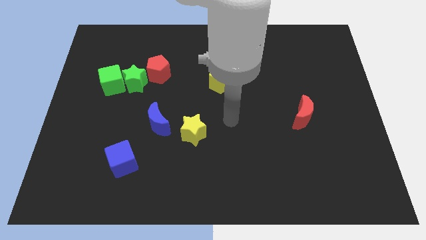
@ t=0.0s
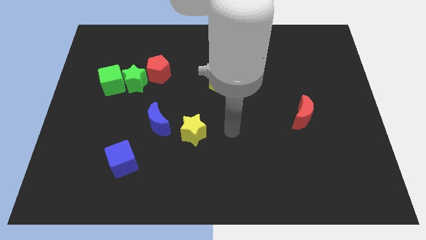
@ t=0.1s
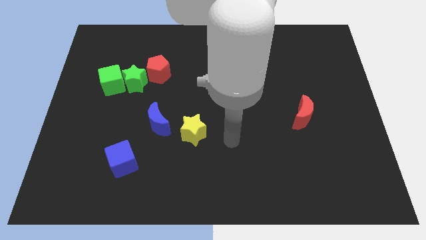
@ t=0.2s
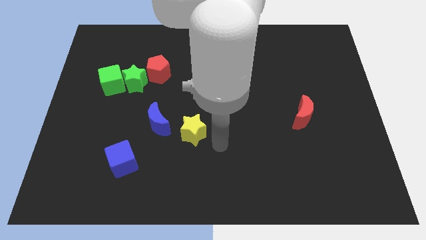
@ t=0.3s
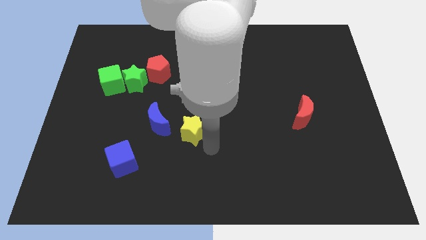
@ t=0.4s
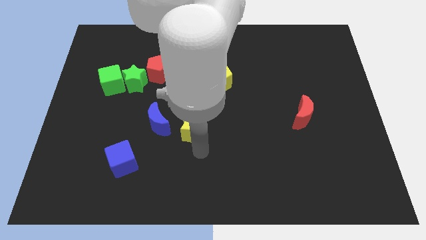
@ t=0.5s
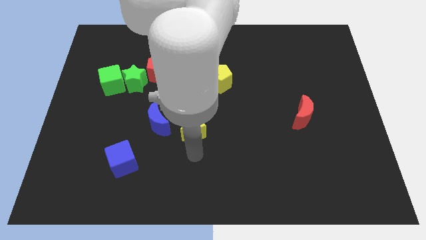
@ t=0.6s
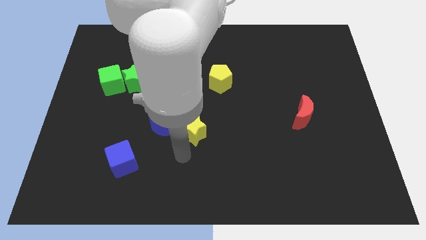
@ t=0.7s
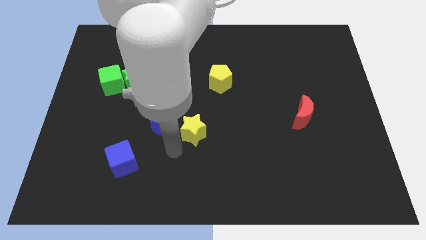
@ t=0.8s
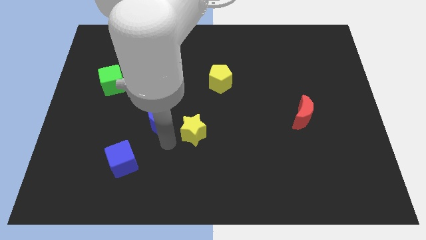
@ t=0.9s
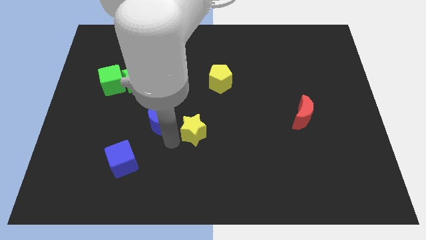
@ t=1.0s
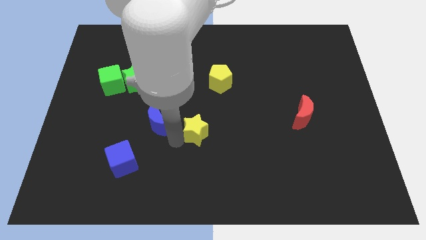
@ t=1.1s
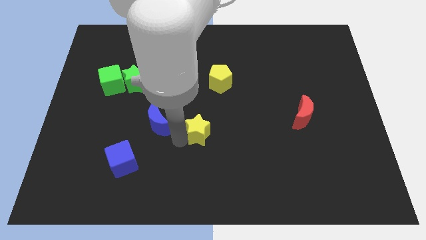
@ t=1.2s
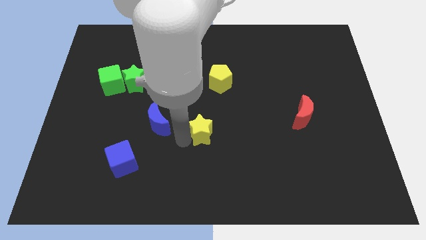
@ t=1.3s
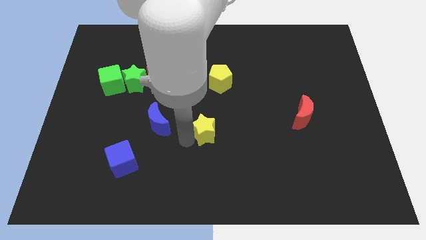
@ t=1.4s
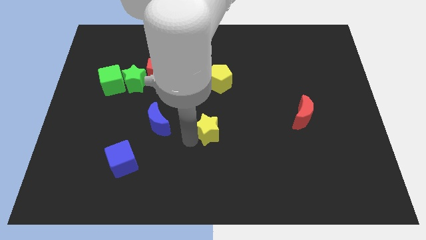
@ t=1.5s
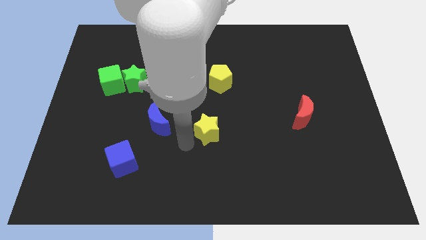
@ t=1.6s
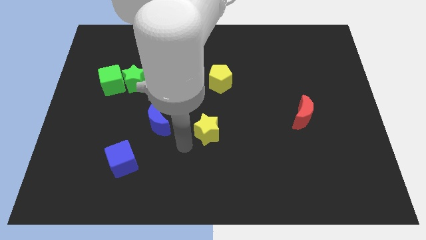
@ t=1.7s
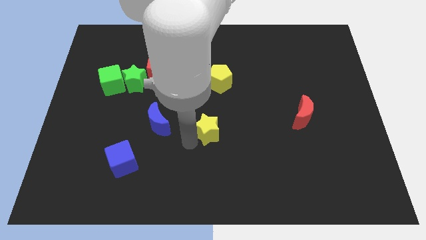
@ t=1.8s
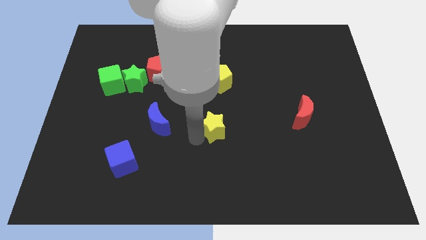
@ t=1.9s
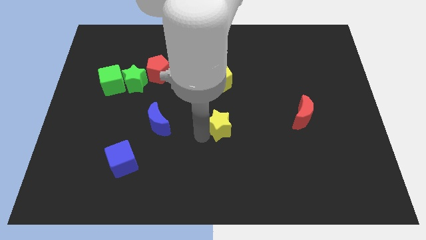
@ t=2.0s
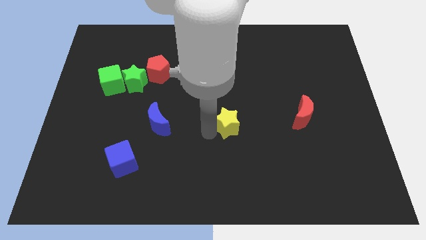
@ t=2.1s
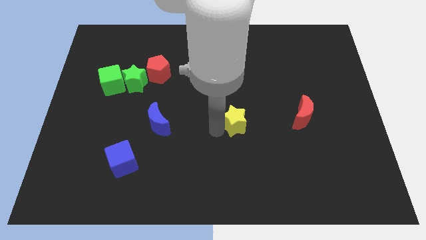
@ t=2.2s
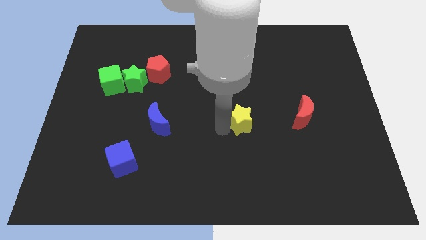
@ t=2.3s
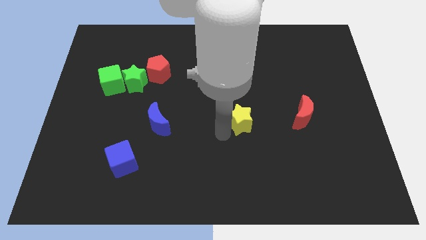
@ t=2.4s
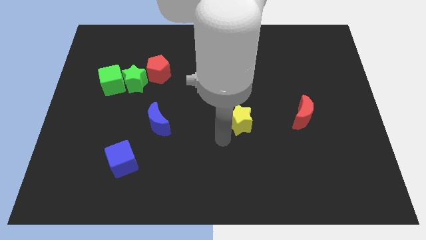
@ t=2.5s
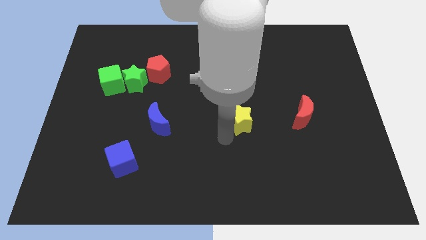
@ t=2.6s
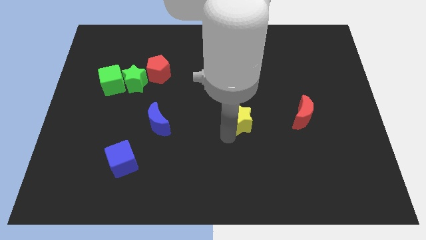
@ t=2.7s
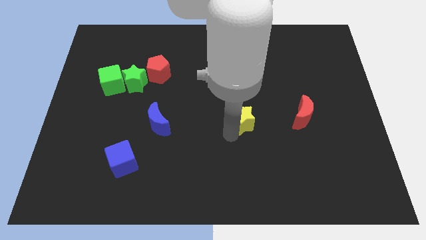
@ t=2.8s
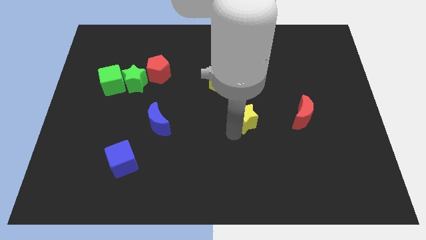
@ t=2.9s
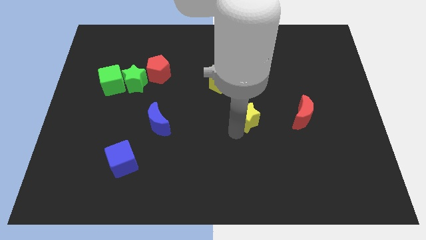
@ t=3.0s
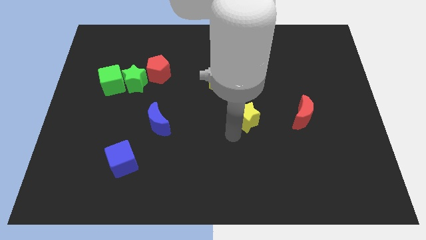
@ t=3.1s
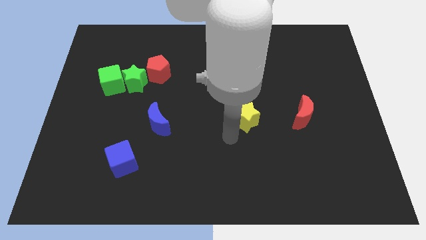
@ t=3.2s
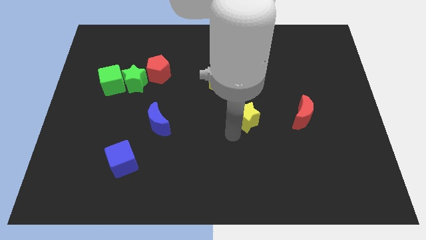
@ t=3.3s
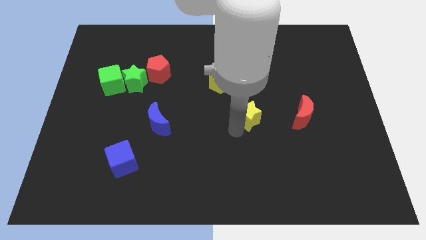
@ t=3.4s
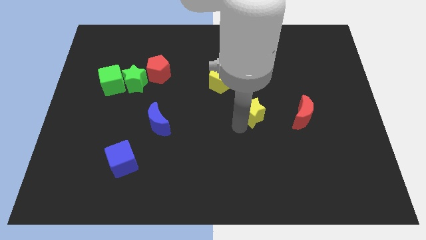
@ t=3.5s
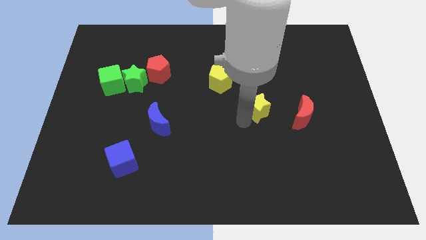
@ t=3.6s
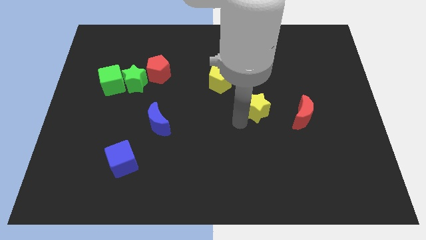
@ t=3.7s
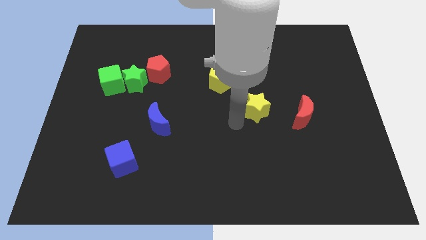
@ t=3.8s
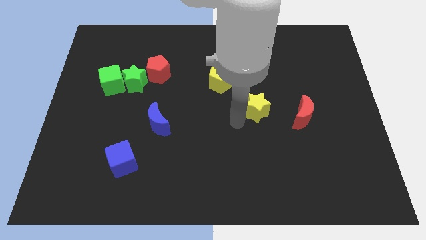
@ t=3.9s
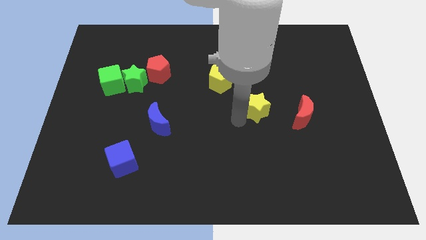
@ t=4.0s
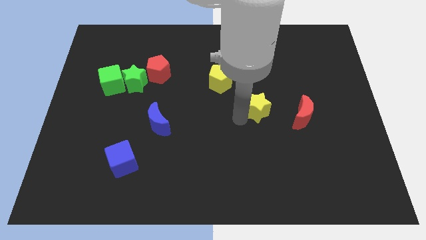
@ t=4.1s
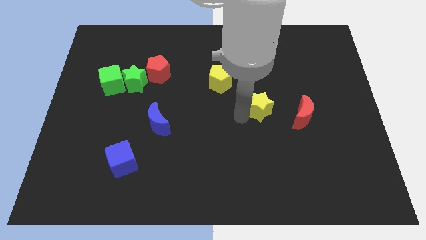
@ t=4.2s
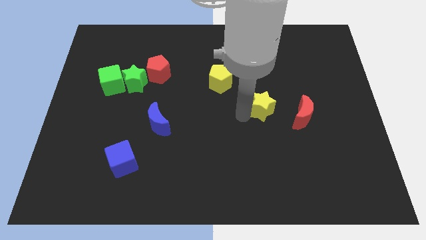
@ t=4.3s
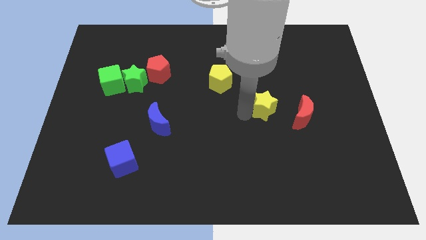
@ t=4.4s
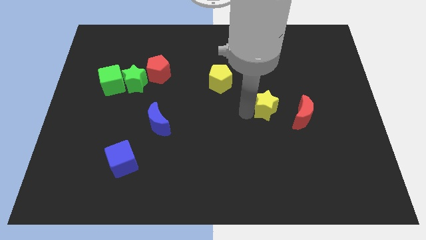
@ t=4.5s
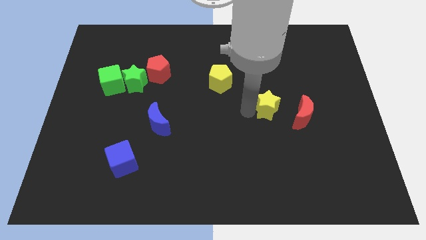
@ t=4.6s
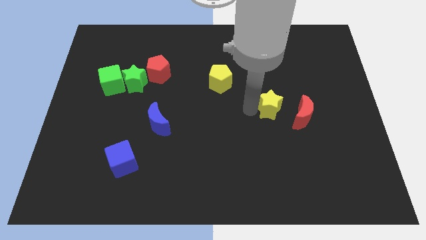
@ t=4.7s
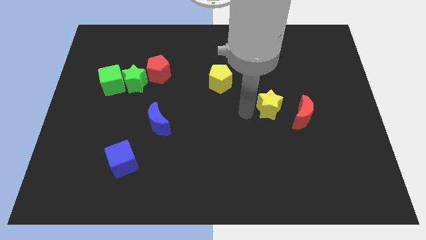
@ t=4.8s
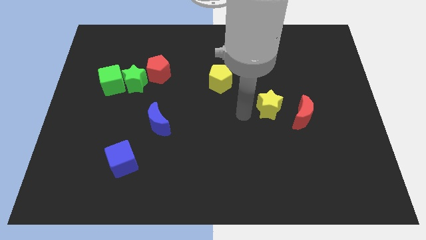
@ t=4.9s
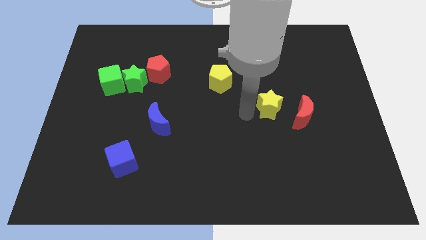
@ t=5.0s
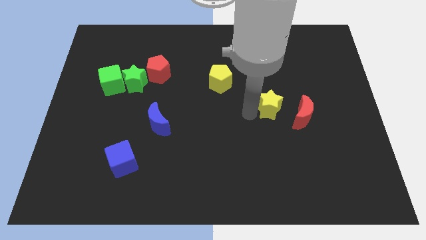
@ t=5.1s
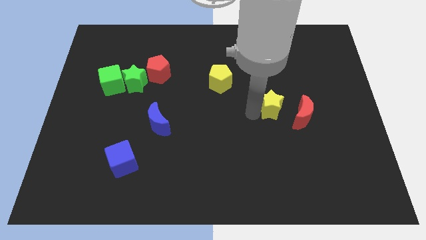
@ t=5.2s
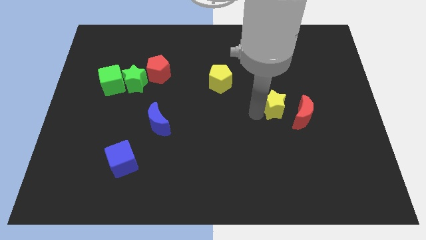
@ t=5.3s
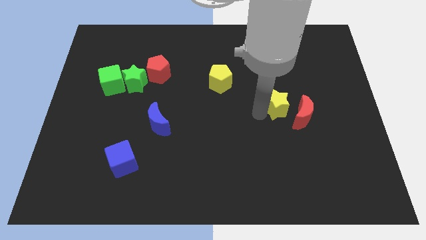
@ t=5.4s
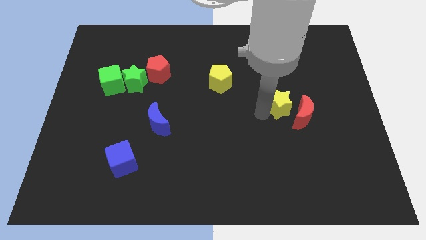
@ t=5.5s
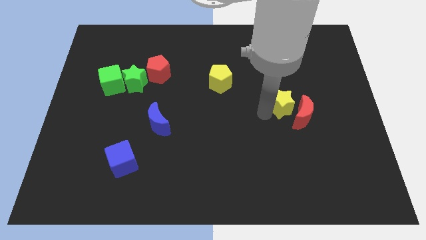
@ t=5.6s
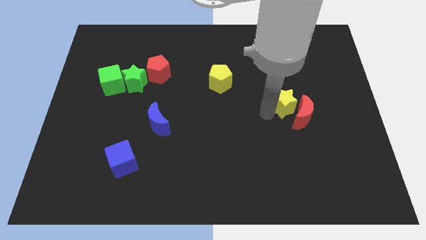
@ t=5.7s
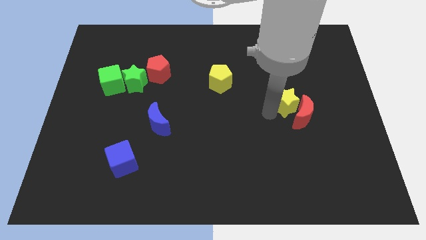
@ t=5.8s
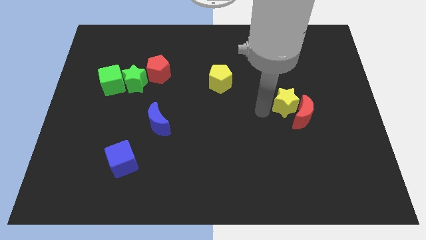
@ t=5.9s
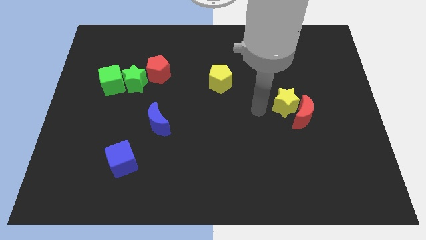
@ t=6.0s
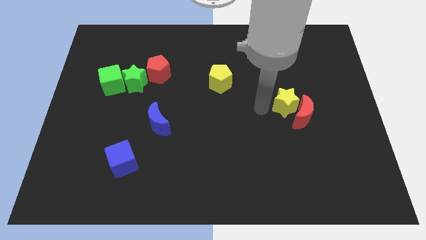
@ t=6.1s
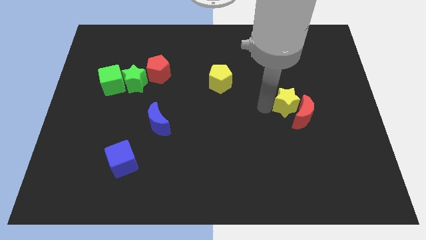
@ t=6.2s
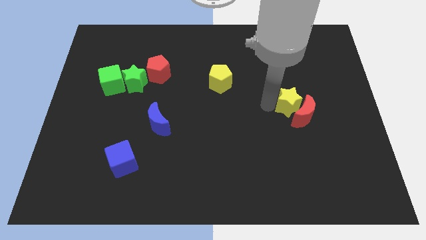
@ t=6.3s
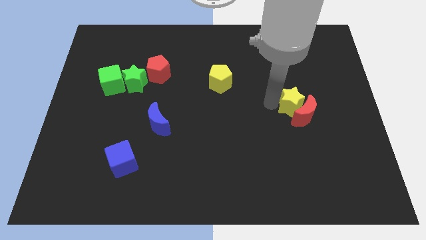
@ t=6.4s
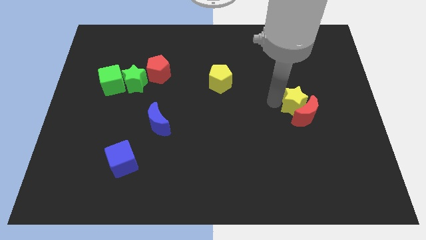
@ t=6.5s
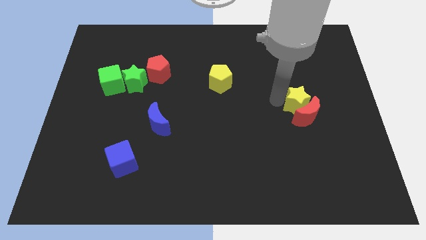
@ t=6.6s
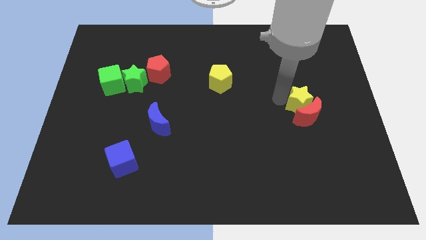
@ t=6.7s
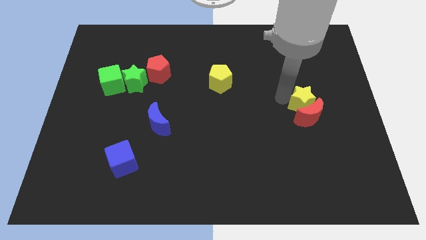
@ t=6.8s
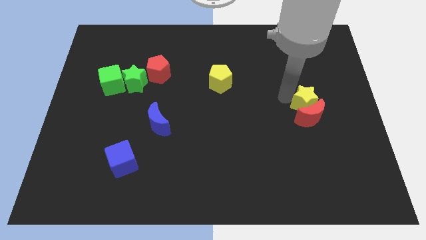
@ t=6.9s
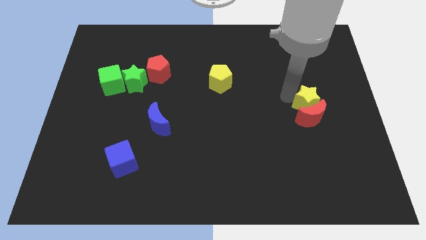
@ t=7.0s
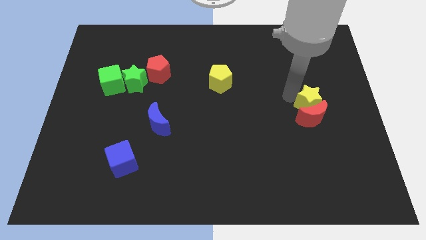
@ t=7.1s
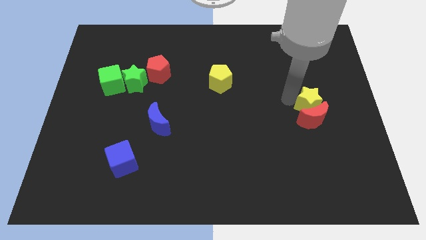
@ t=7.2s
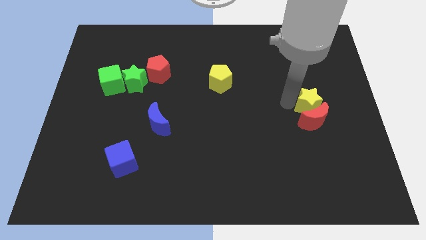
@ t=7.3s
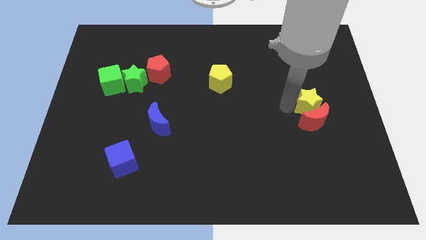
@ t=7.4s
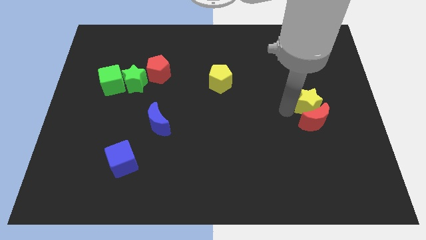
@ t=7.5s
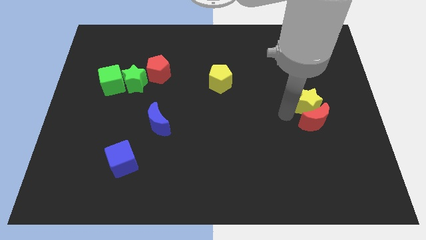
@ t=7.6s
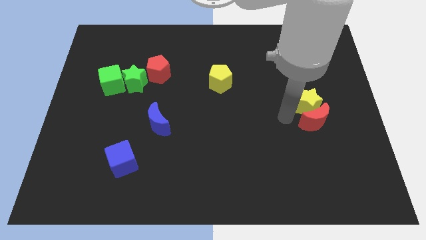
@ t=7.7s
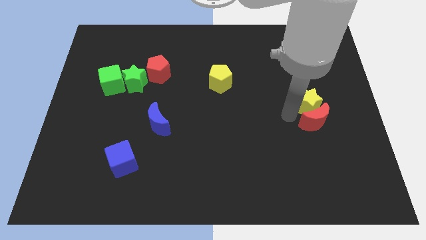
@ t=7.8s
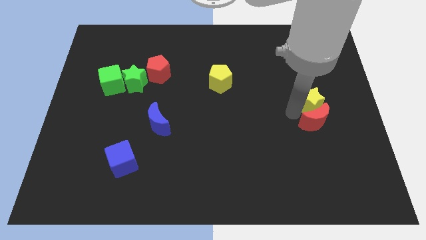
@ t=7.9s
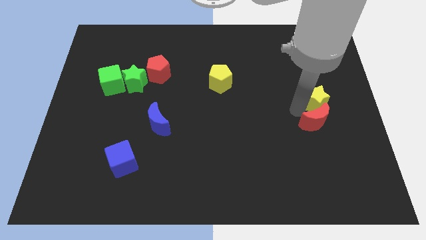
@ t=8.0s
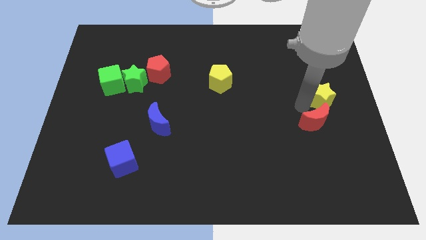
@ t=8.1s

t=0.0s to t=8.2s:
put the yellow star to the right side of the board
